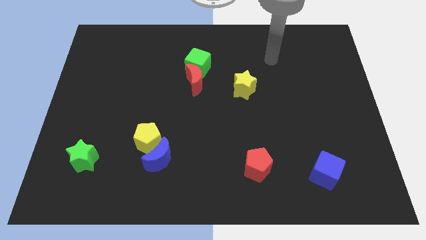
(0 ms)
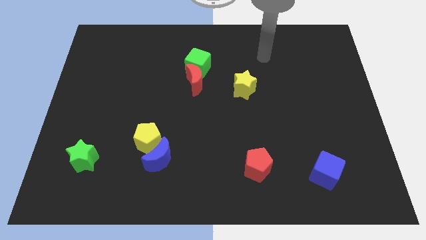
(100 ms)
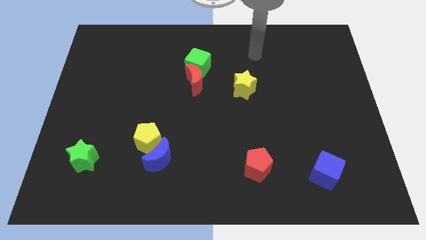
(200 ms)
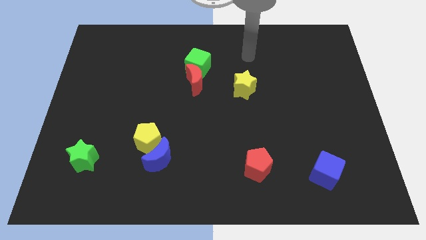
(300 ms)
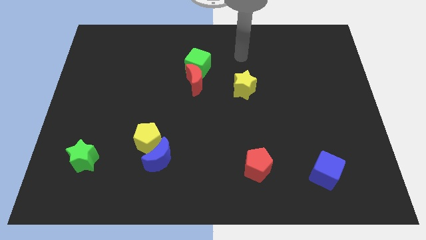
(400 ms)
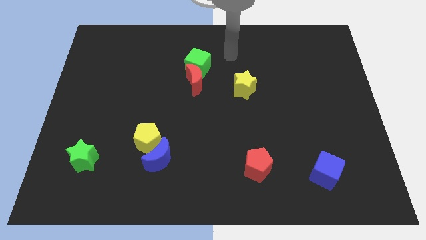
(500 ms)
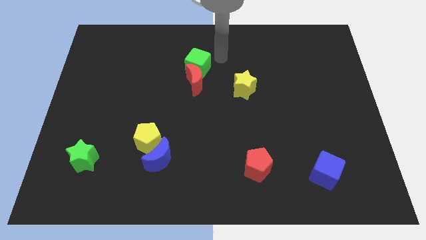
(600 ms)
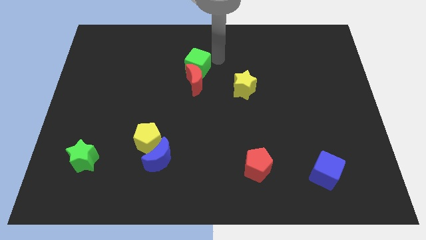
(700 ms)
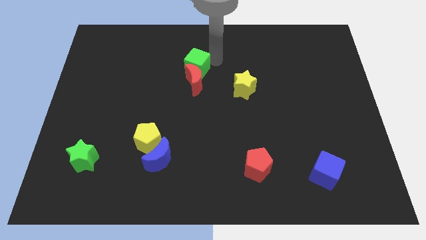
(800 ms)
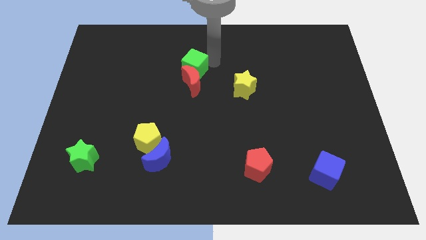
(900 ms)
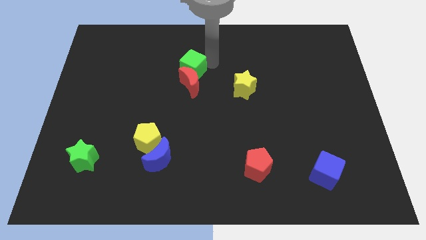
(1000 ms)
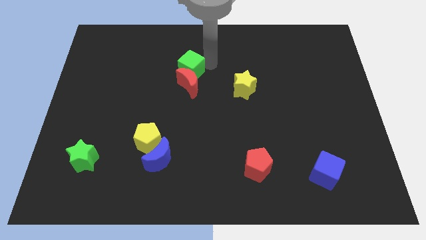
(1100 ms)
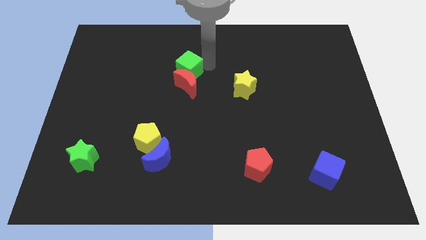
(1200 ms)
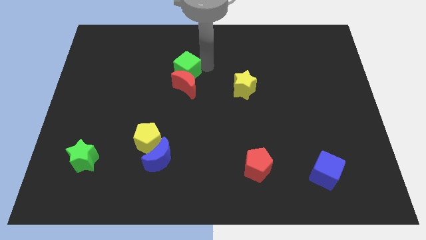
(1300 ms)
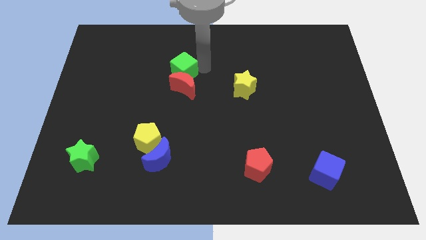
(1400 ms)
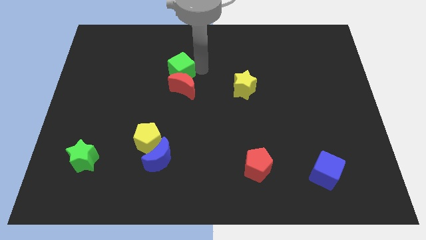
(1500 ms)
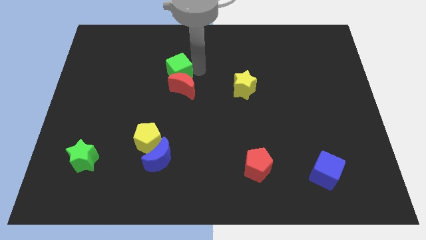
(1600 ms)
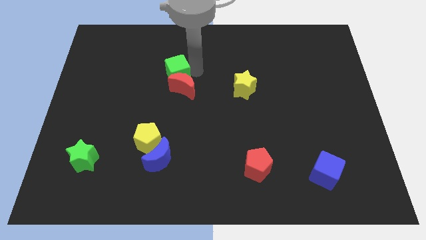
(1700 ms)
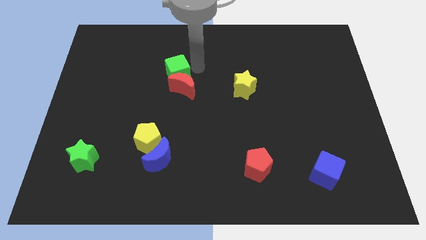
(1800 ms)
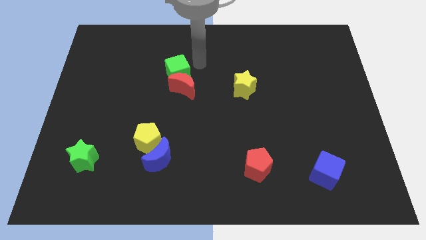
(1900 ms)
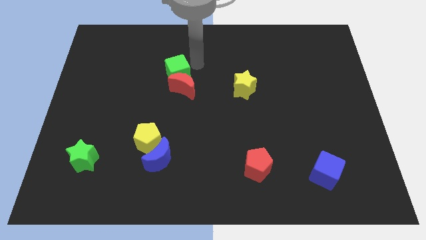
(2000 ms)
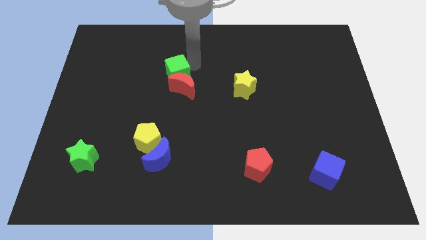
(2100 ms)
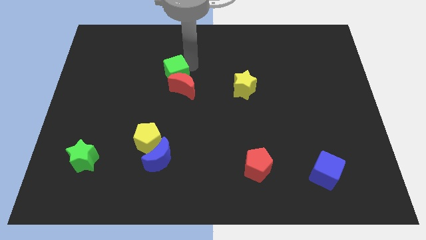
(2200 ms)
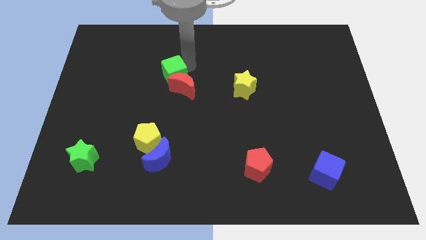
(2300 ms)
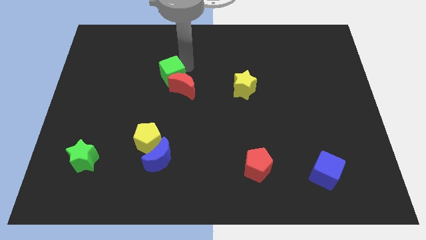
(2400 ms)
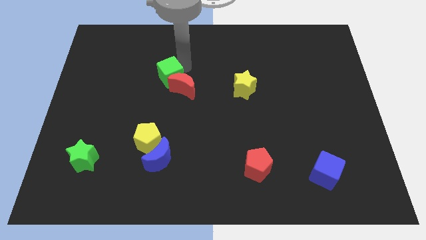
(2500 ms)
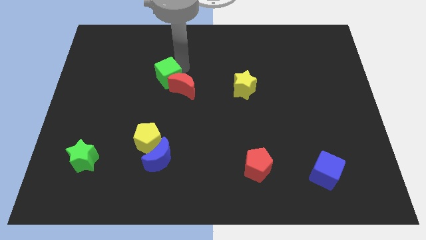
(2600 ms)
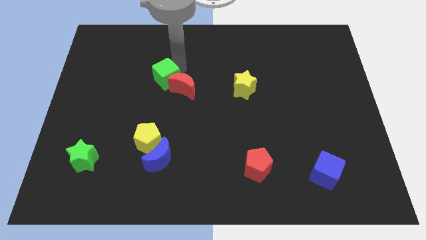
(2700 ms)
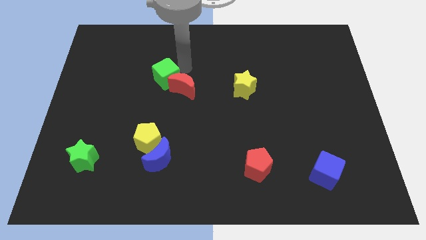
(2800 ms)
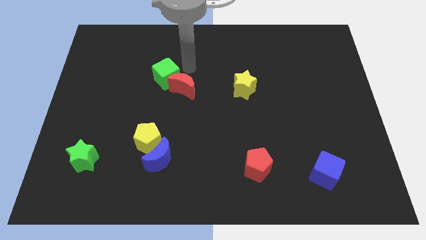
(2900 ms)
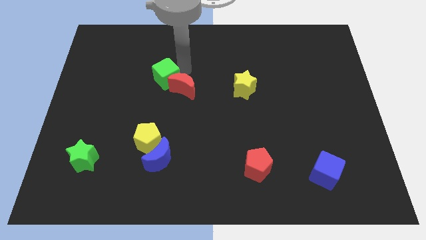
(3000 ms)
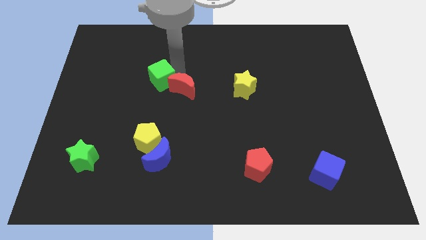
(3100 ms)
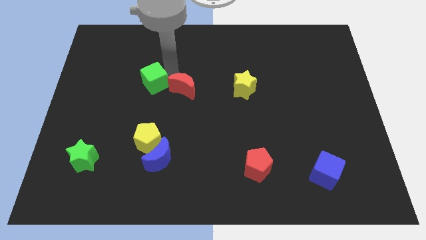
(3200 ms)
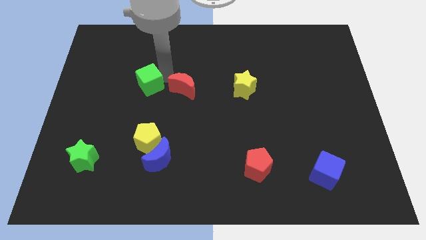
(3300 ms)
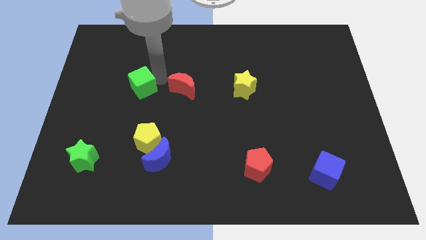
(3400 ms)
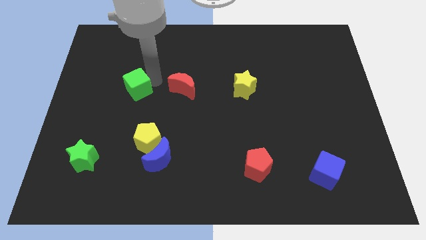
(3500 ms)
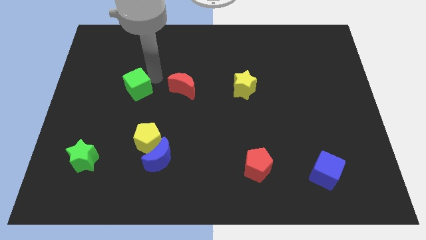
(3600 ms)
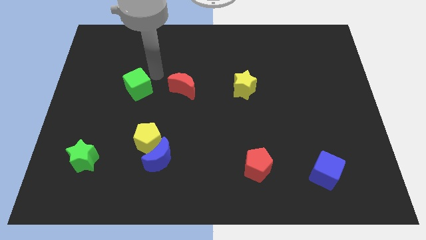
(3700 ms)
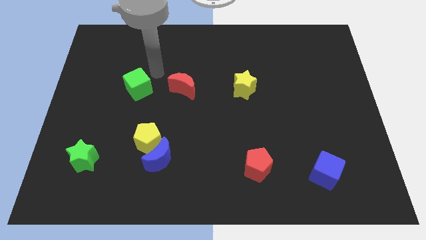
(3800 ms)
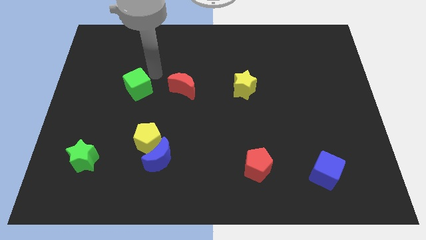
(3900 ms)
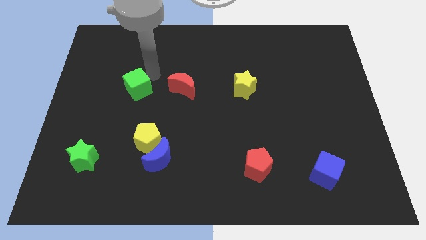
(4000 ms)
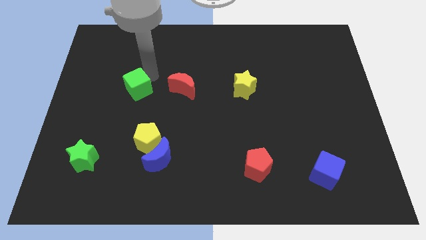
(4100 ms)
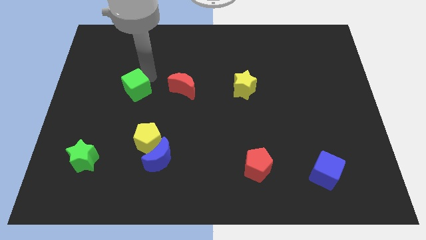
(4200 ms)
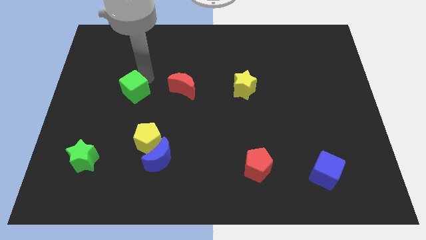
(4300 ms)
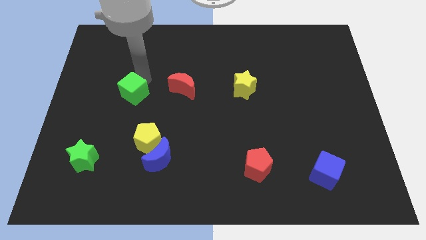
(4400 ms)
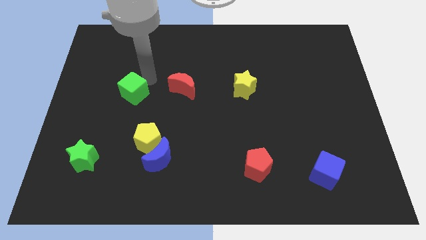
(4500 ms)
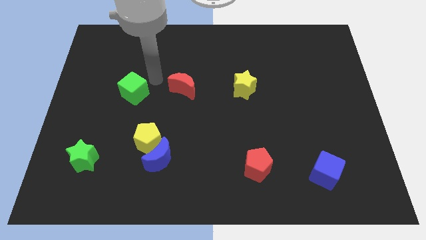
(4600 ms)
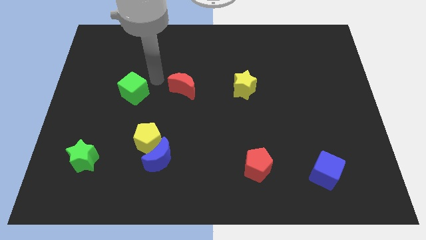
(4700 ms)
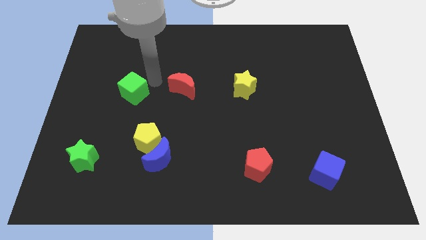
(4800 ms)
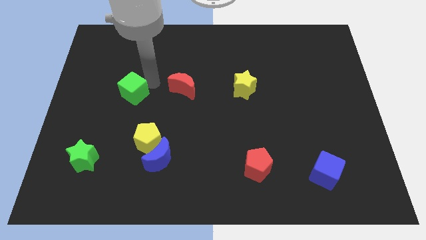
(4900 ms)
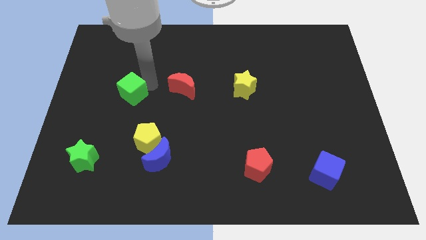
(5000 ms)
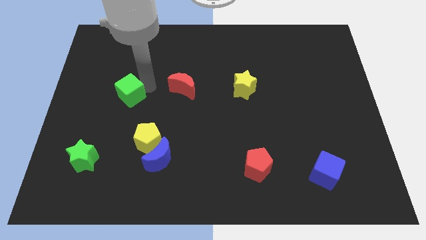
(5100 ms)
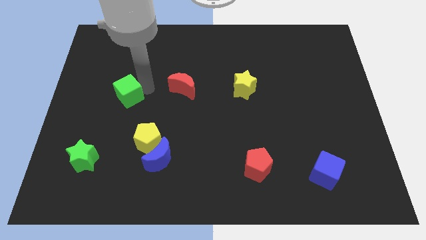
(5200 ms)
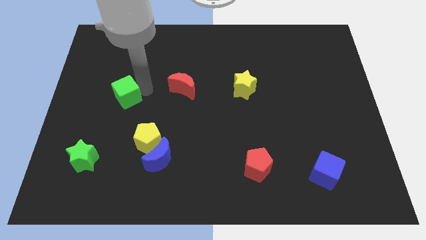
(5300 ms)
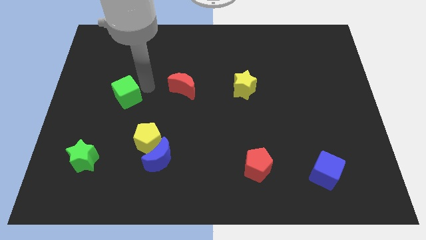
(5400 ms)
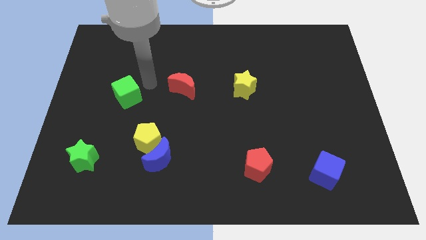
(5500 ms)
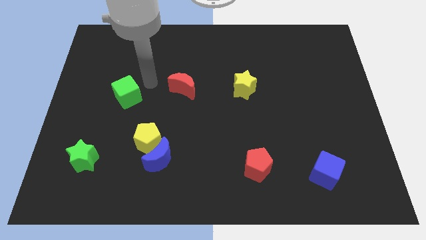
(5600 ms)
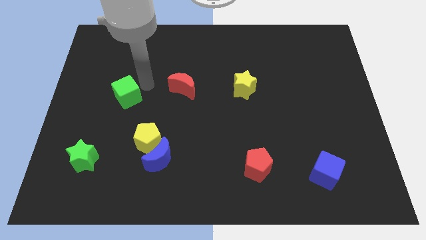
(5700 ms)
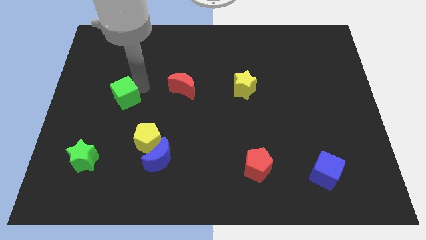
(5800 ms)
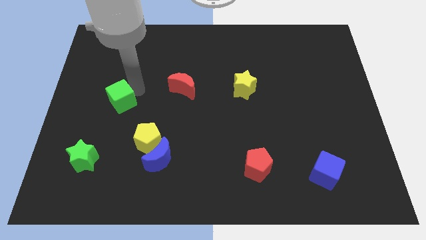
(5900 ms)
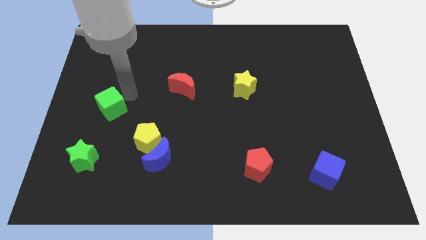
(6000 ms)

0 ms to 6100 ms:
slide the green cube to the top of the green star
